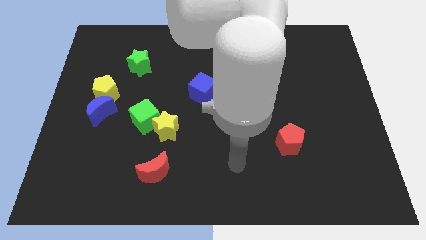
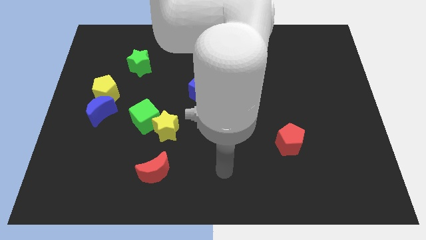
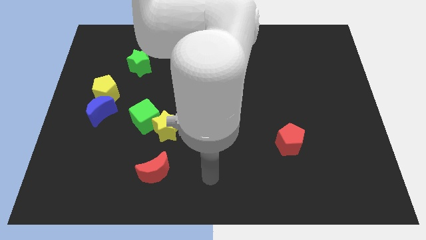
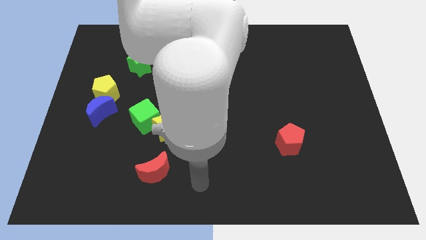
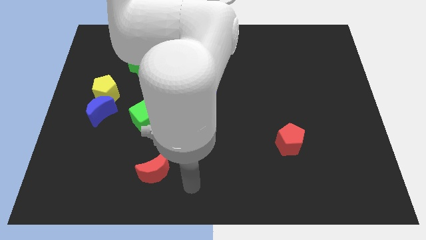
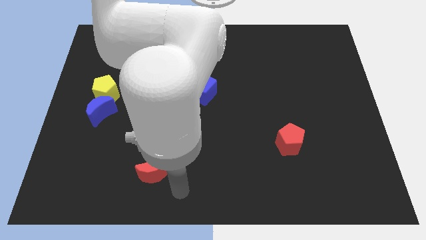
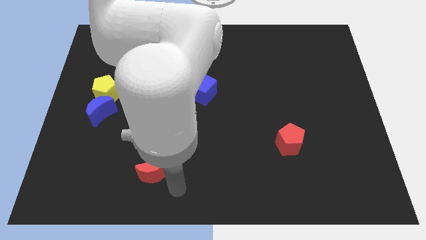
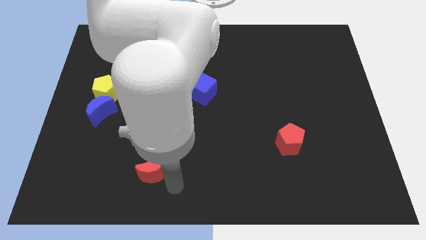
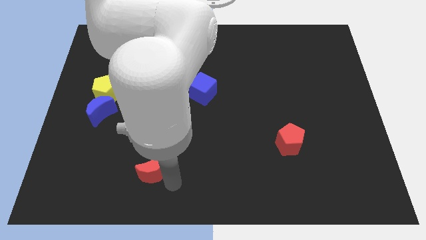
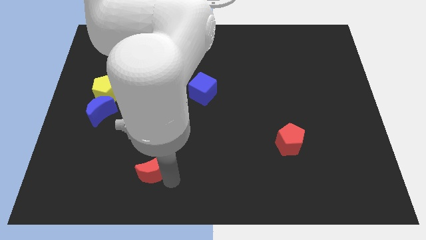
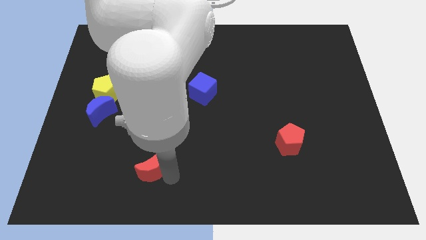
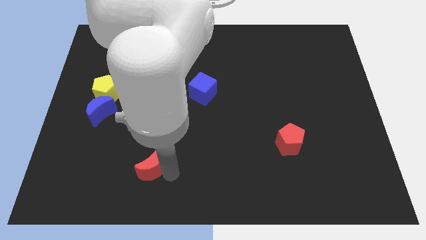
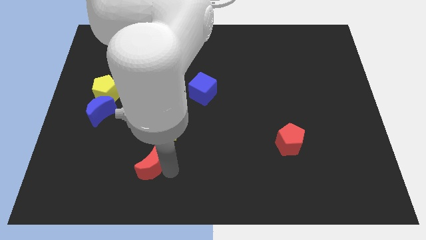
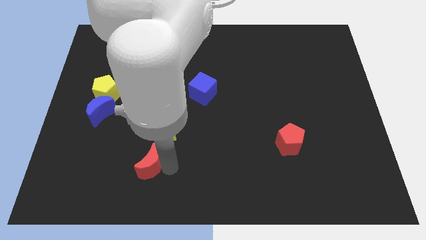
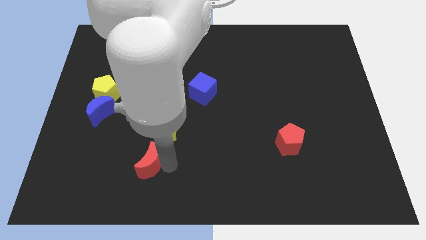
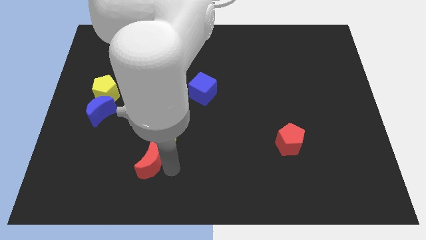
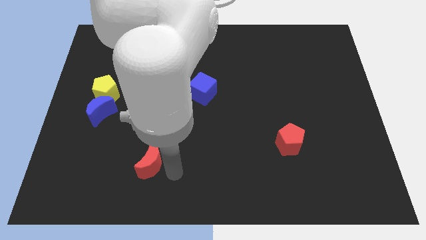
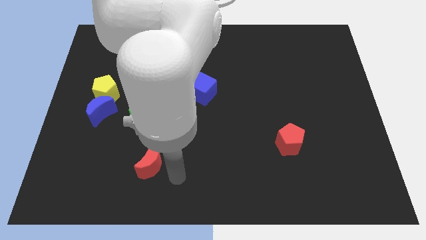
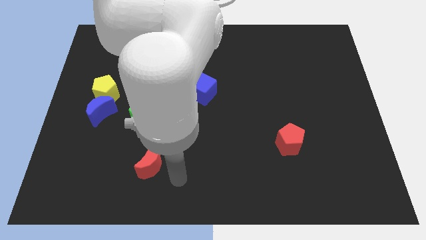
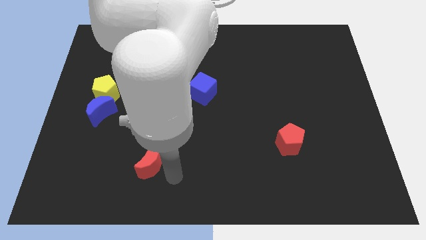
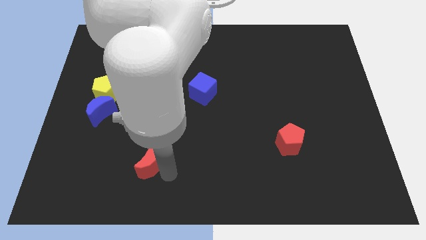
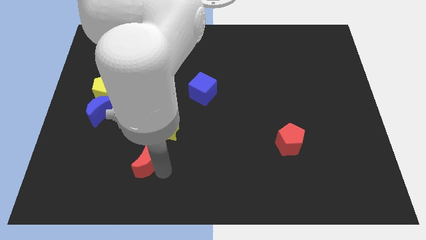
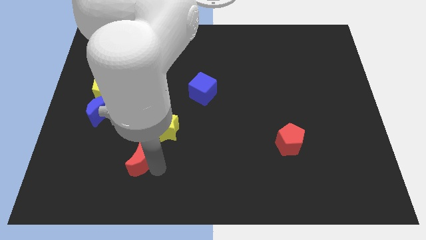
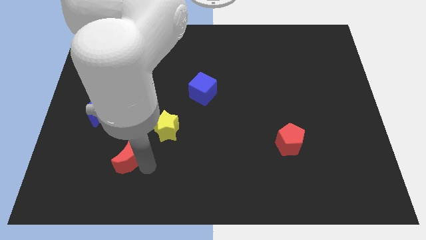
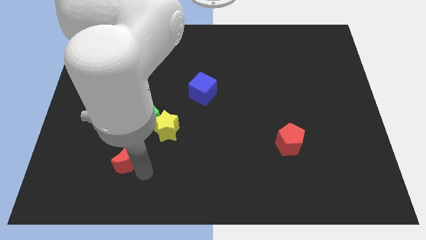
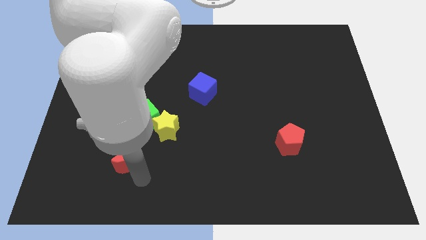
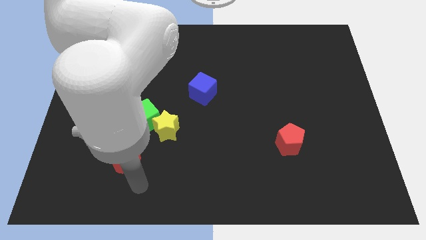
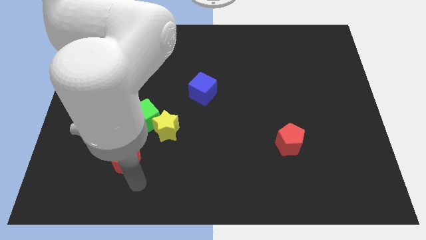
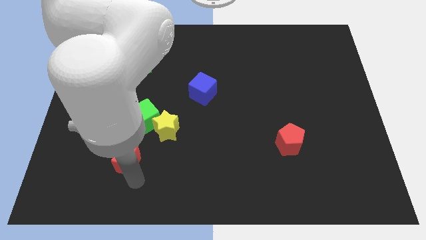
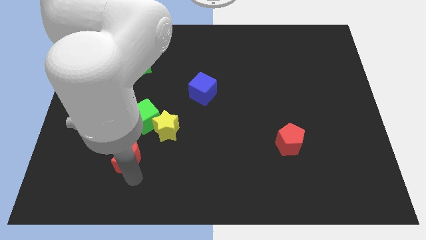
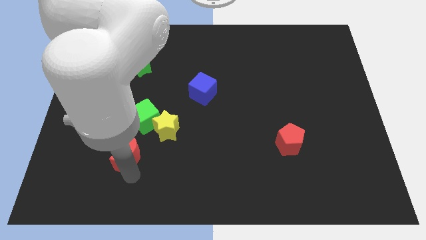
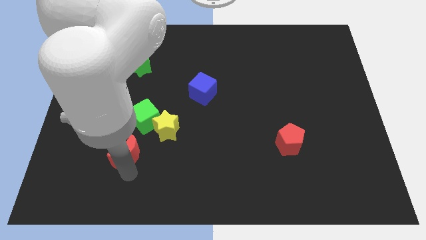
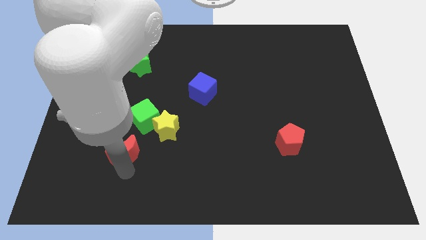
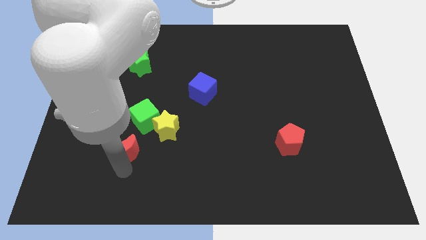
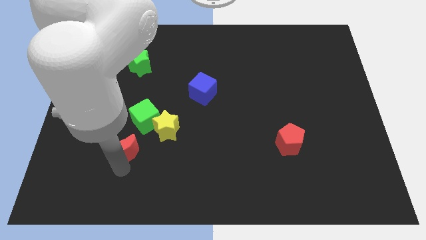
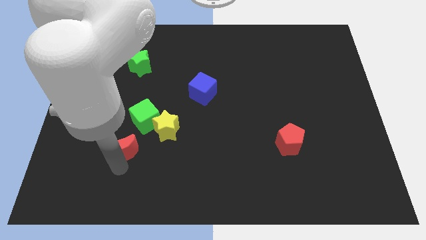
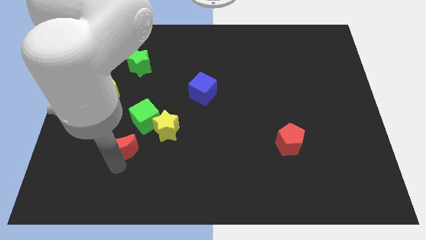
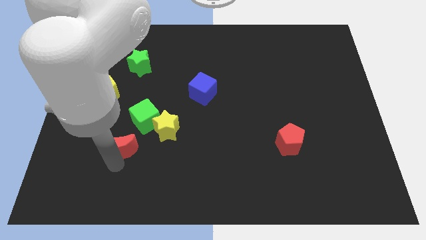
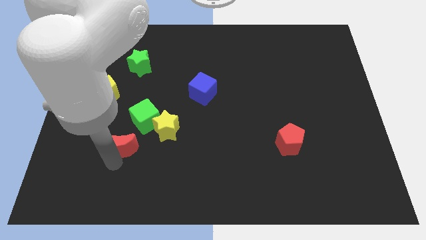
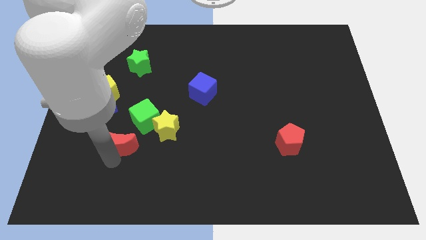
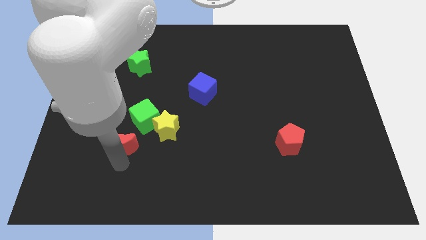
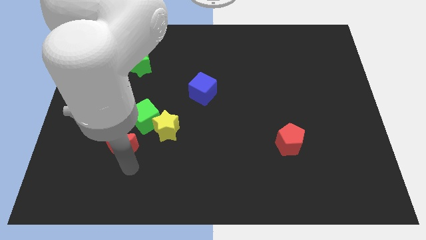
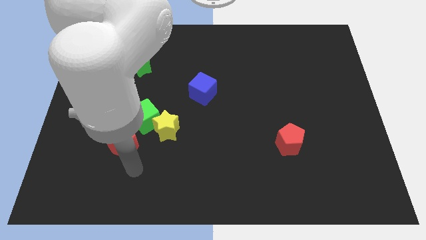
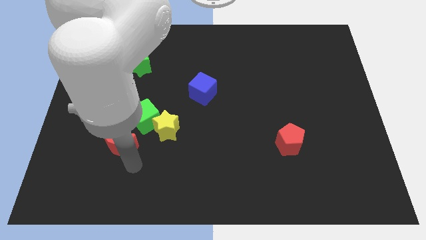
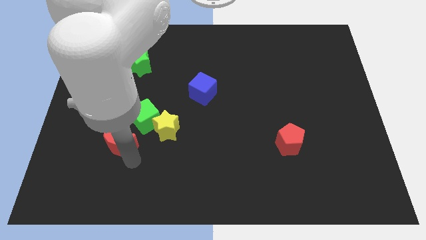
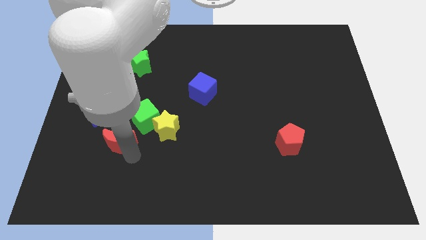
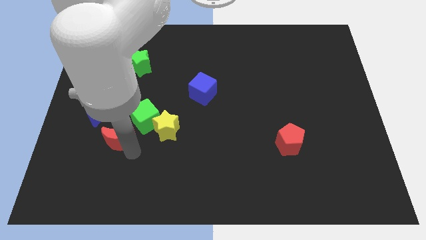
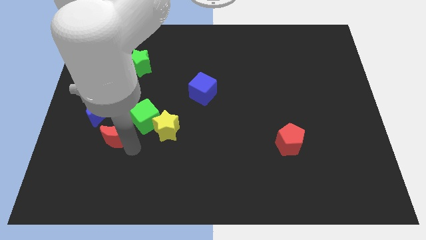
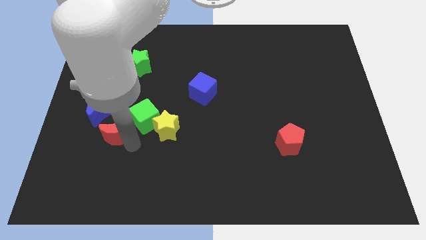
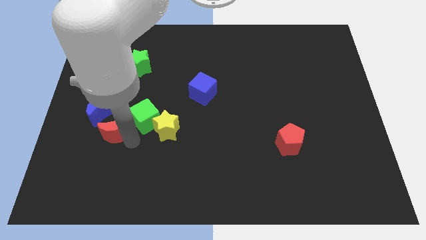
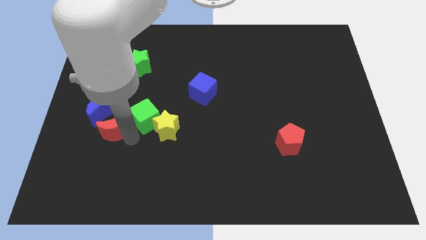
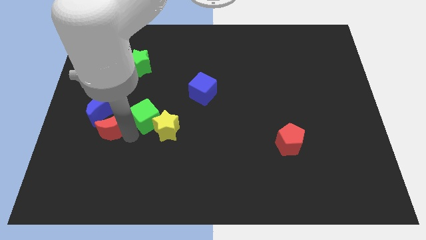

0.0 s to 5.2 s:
slide the red moon close to the blue moon

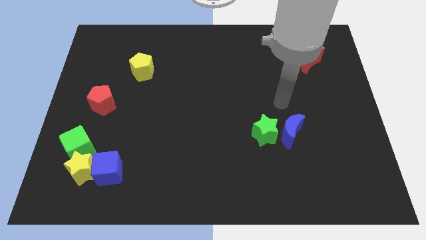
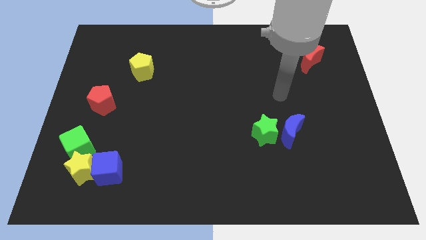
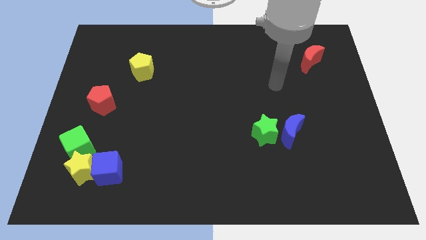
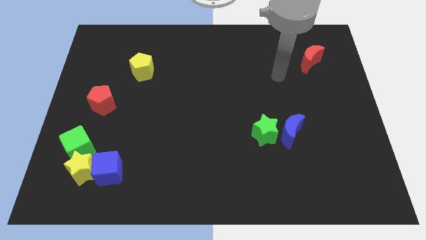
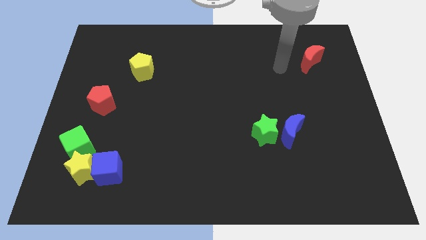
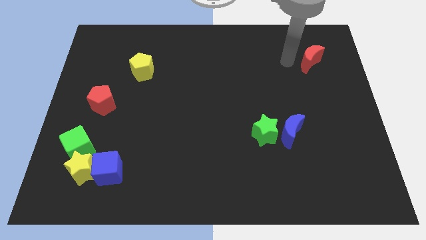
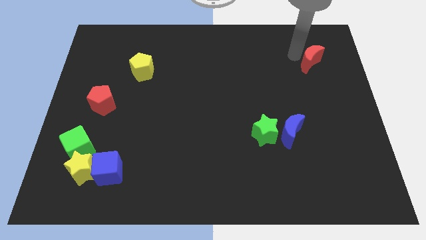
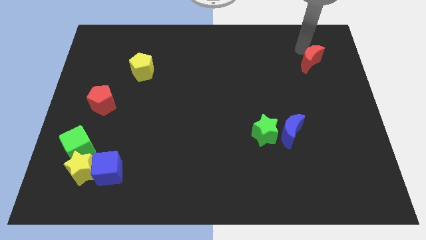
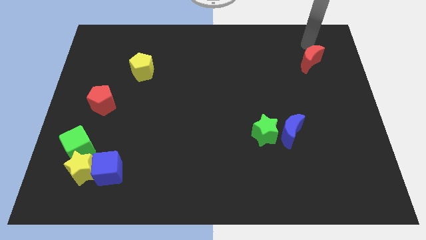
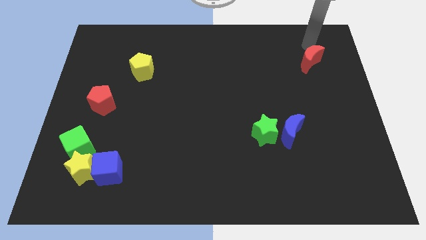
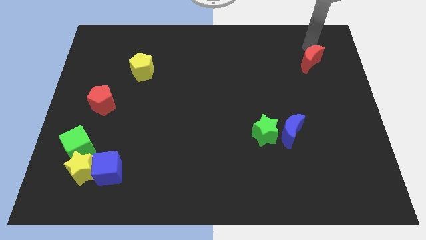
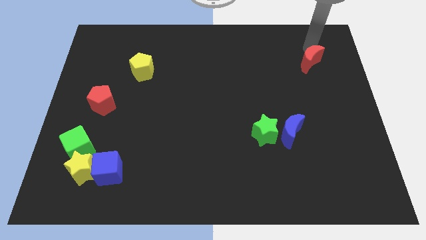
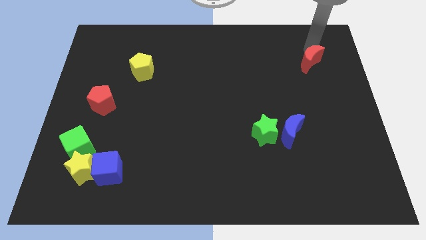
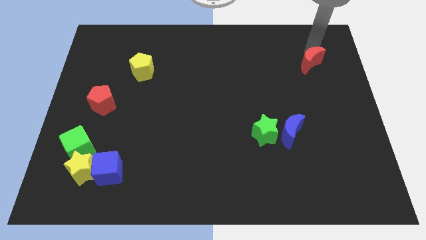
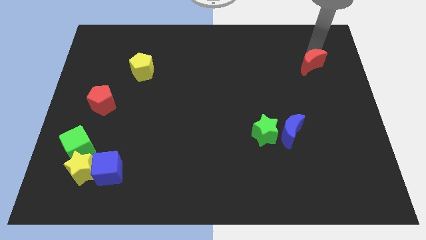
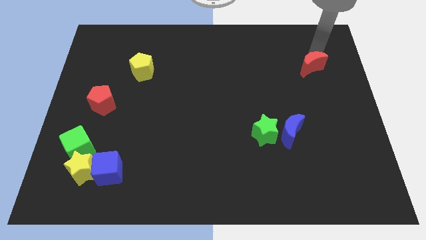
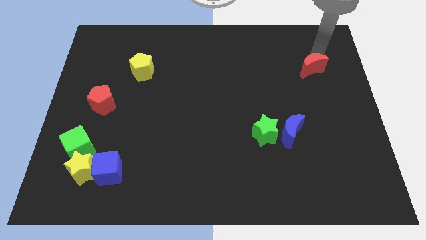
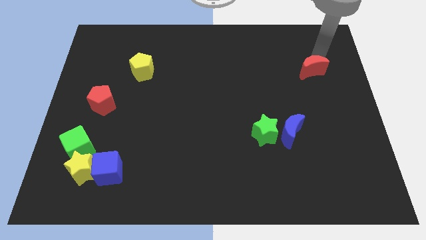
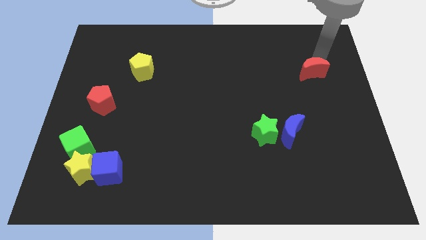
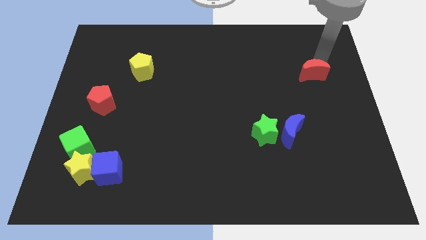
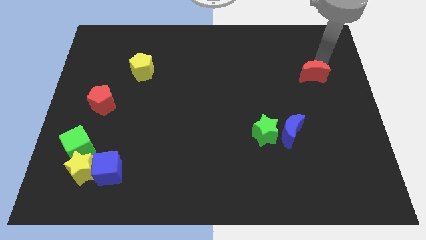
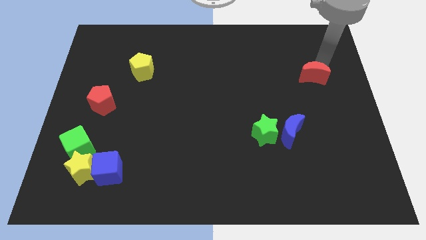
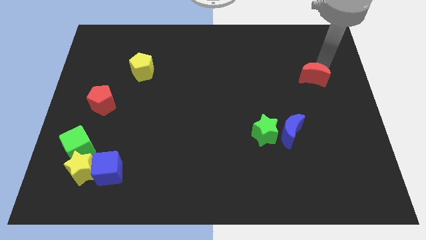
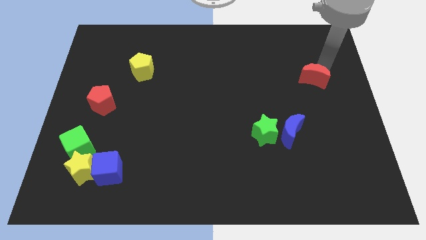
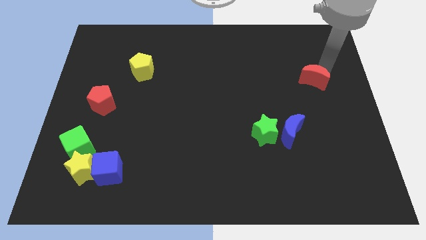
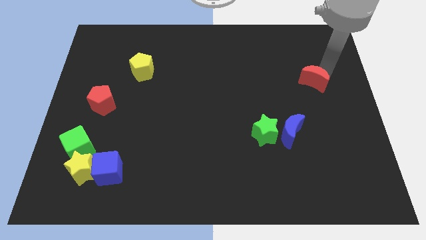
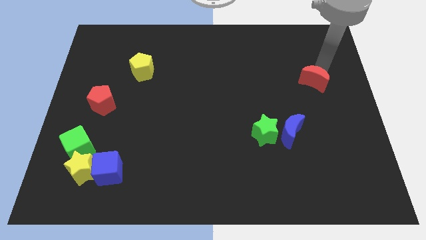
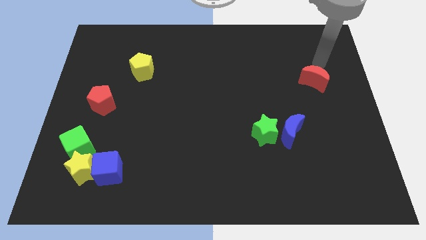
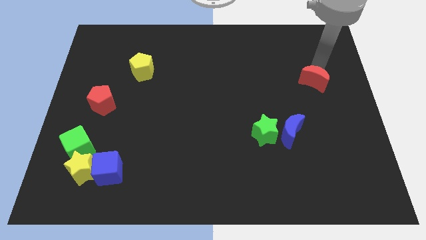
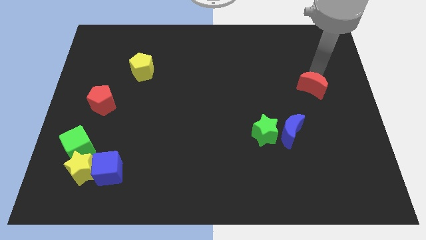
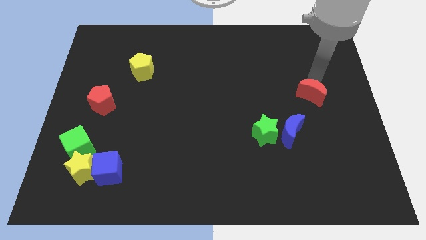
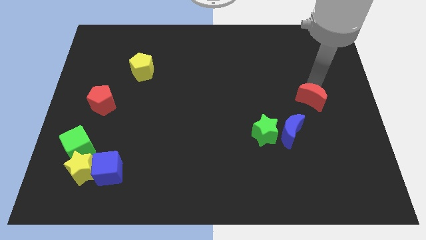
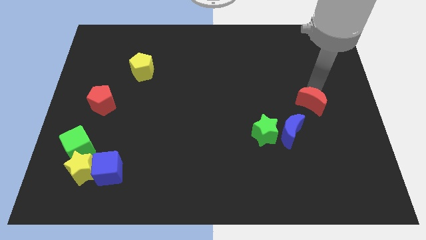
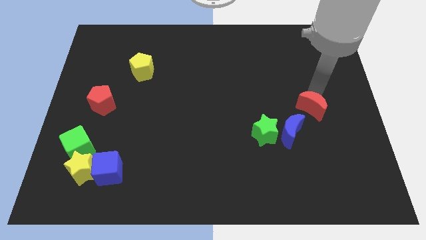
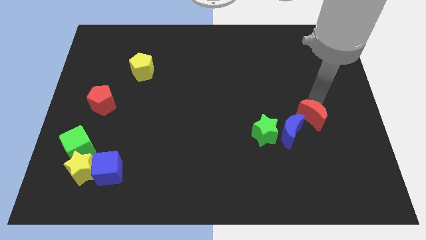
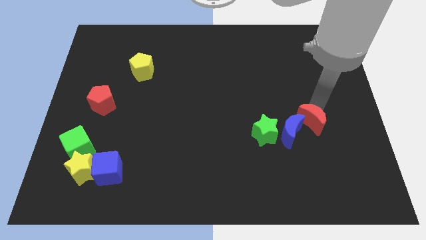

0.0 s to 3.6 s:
put the red moon towards the blue moon

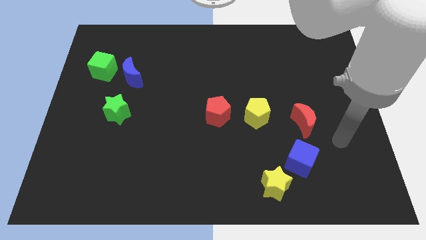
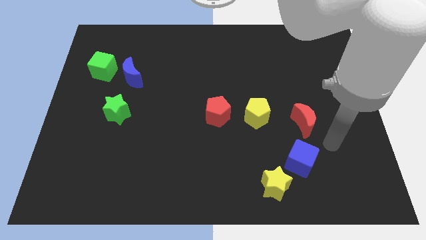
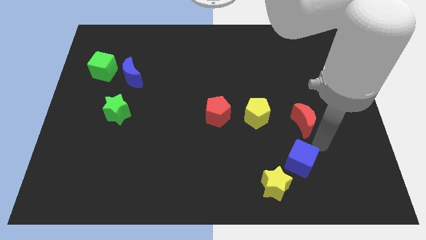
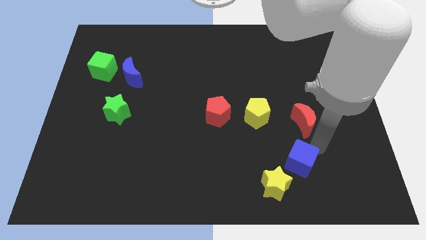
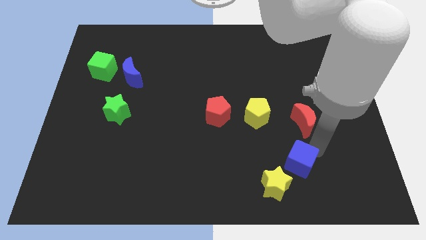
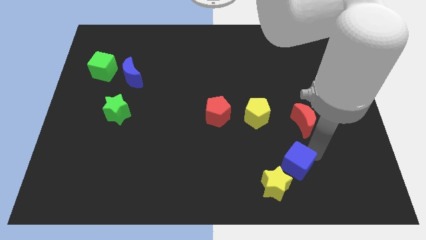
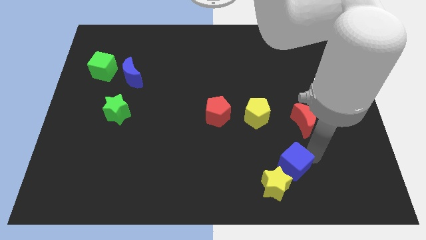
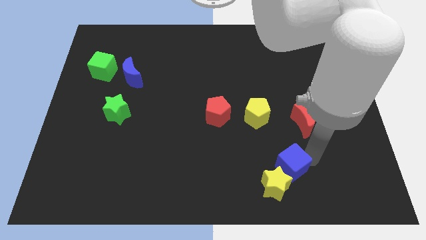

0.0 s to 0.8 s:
put the blue cube next to the yellow star
